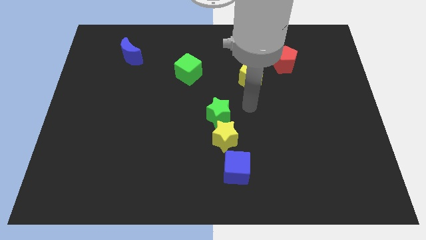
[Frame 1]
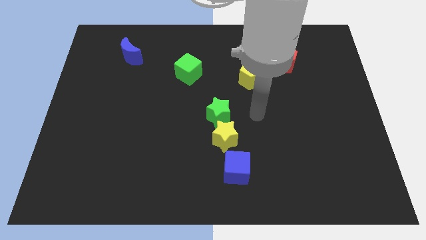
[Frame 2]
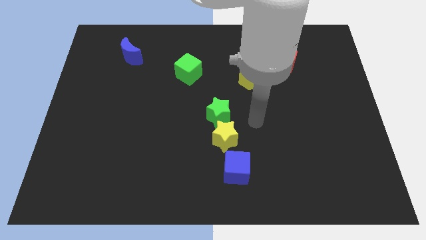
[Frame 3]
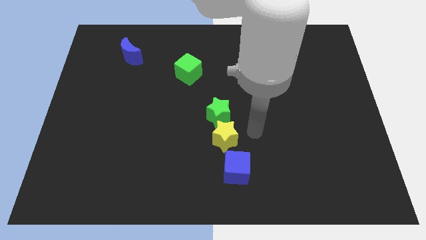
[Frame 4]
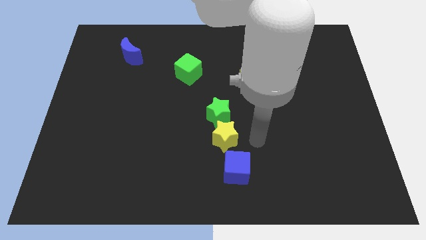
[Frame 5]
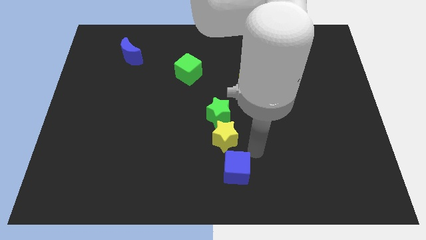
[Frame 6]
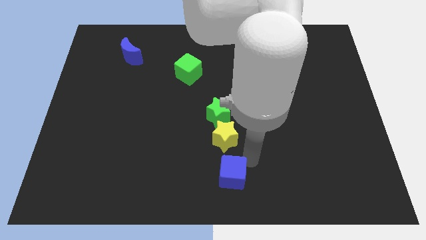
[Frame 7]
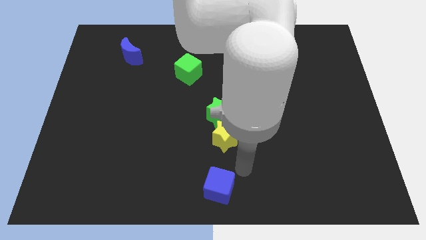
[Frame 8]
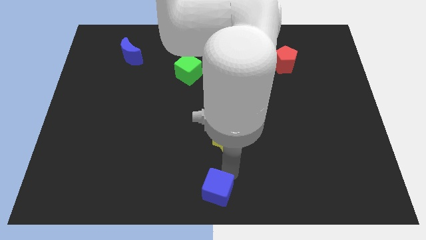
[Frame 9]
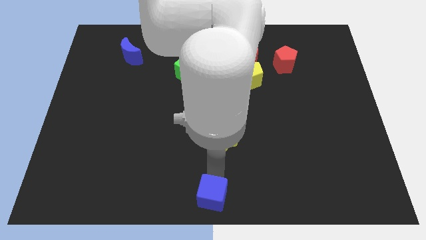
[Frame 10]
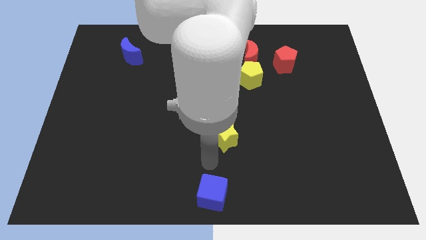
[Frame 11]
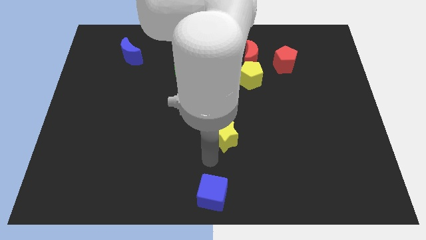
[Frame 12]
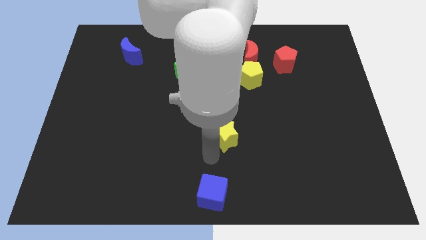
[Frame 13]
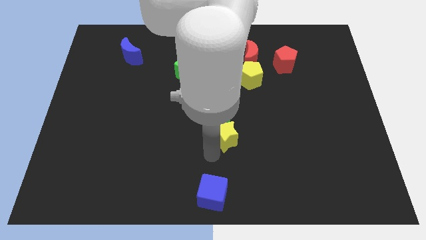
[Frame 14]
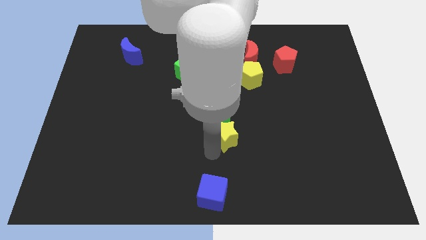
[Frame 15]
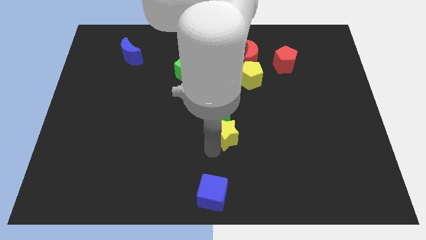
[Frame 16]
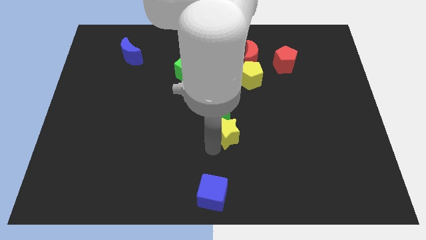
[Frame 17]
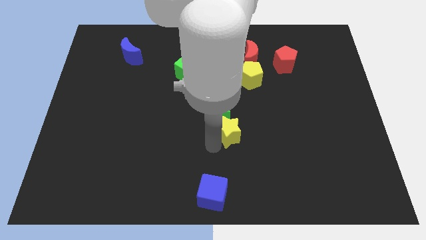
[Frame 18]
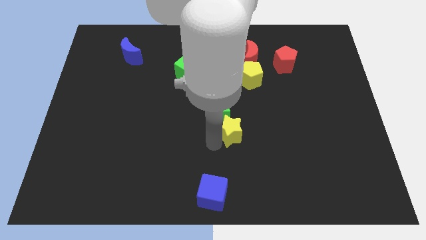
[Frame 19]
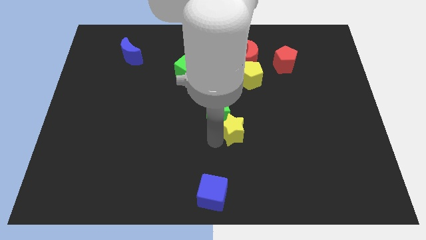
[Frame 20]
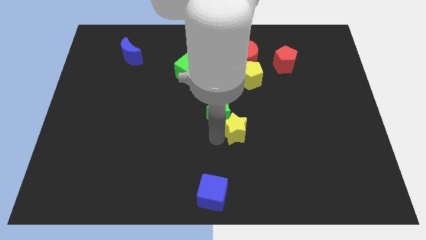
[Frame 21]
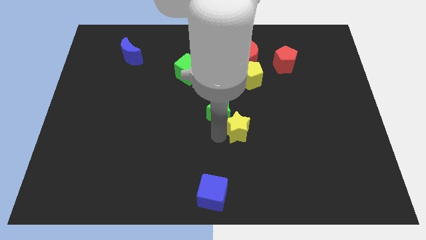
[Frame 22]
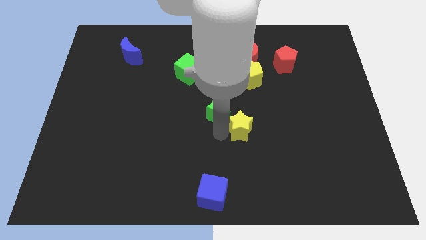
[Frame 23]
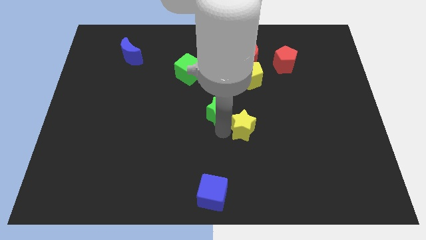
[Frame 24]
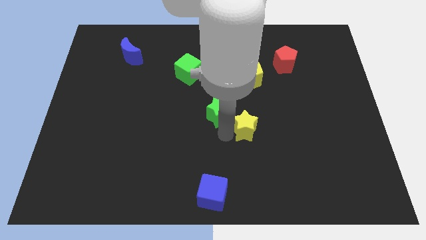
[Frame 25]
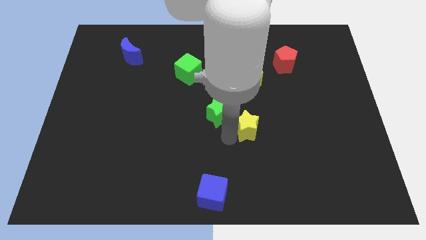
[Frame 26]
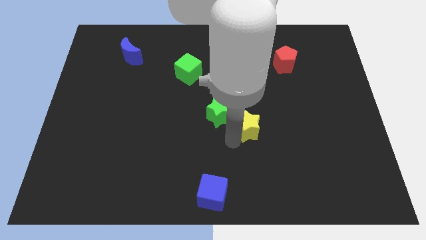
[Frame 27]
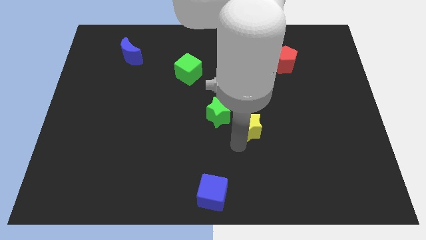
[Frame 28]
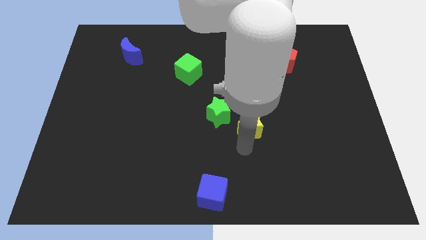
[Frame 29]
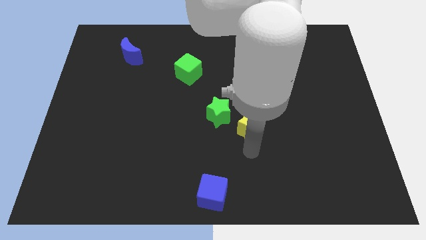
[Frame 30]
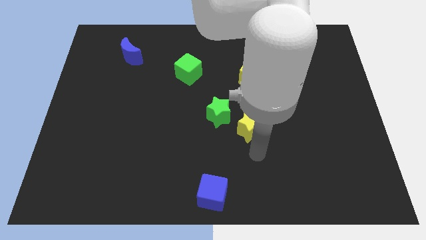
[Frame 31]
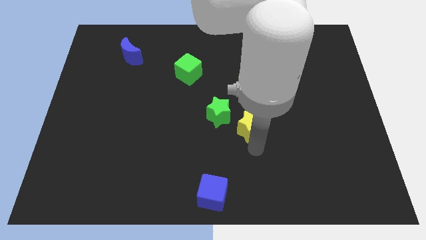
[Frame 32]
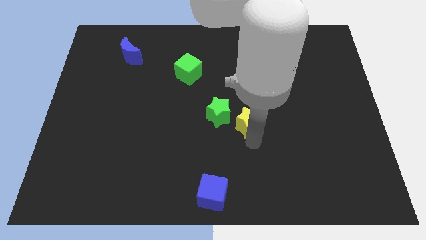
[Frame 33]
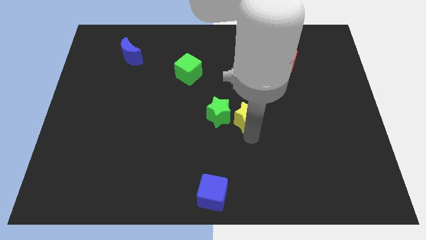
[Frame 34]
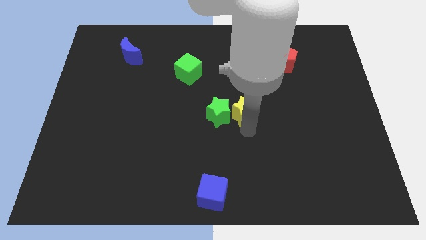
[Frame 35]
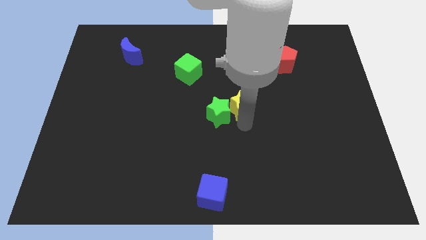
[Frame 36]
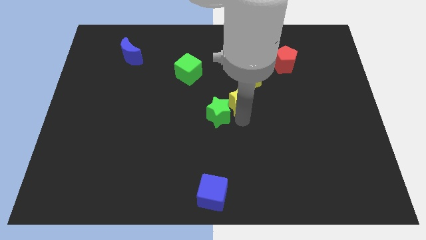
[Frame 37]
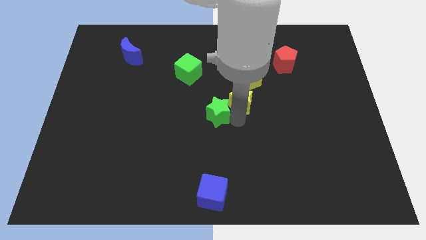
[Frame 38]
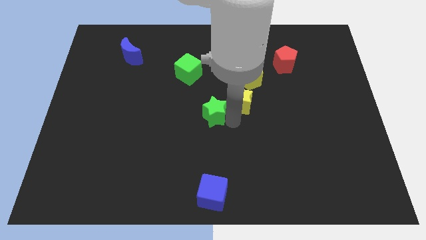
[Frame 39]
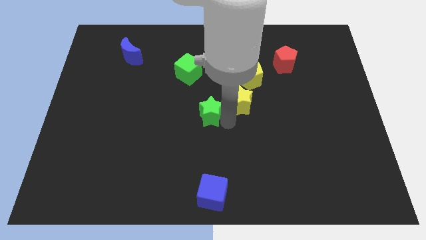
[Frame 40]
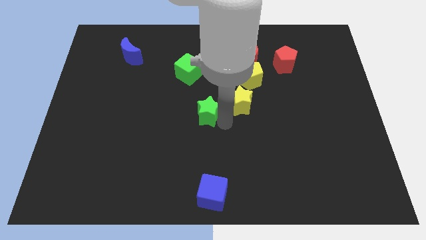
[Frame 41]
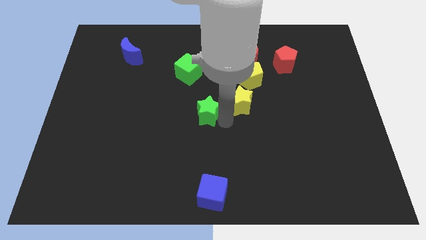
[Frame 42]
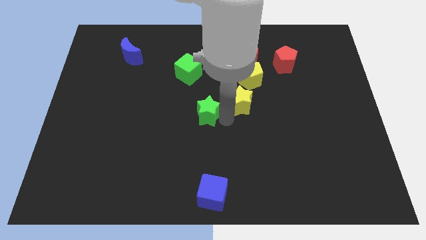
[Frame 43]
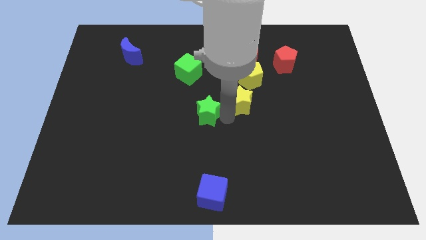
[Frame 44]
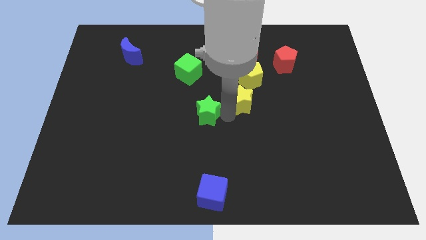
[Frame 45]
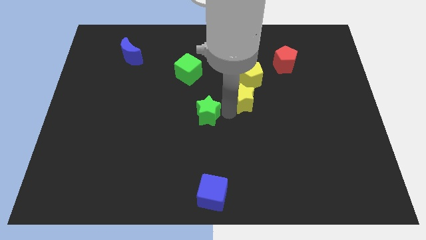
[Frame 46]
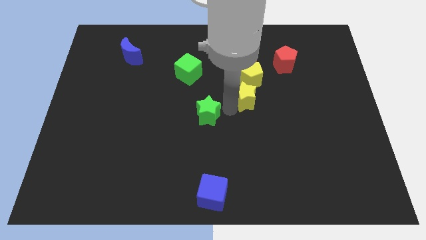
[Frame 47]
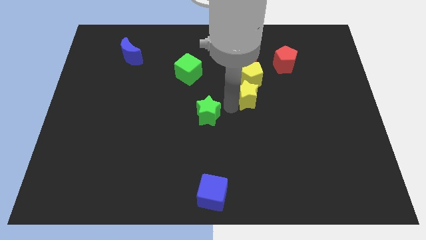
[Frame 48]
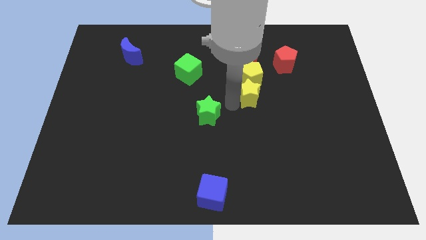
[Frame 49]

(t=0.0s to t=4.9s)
slide the yellow star to the yellow pentagon

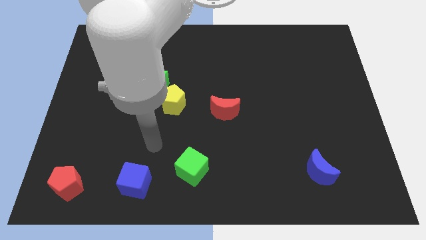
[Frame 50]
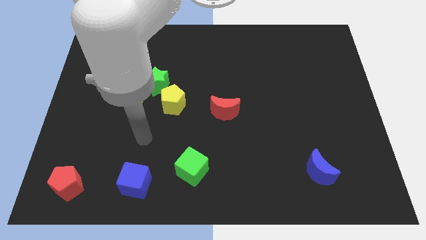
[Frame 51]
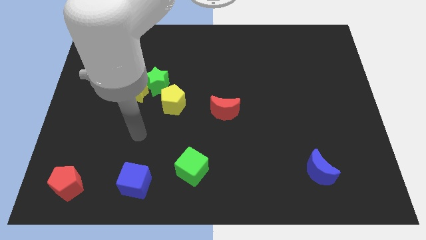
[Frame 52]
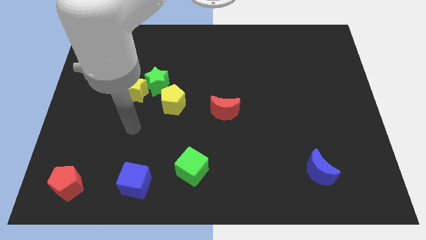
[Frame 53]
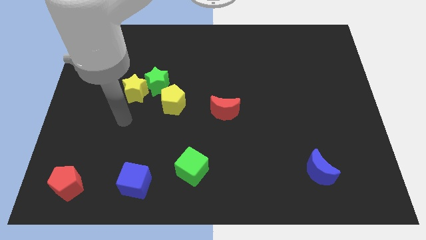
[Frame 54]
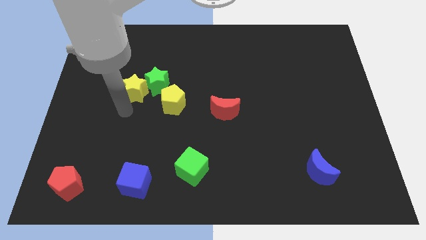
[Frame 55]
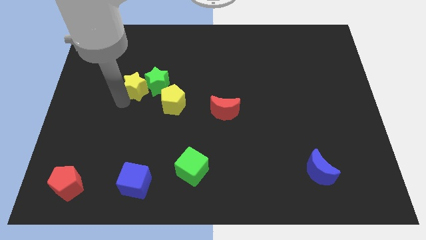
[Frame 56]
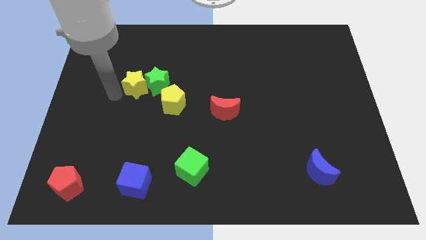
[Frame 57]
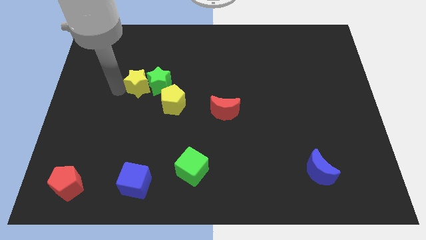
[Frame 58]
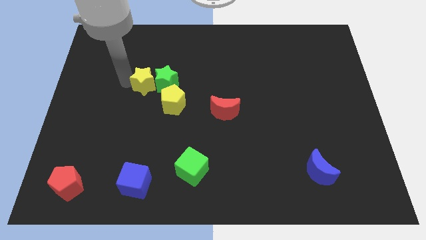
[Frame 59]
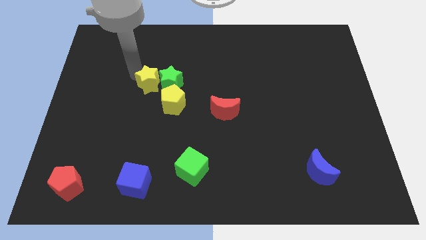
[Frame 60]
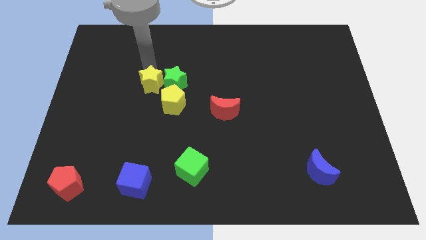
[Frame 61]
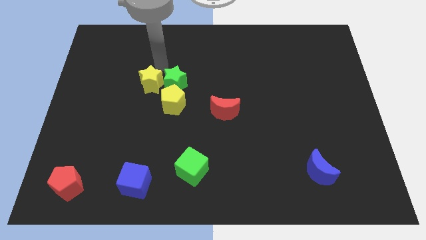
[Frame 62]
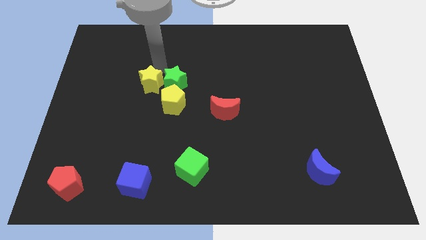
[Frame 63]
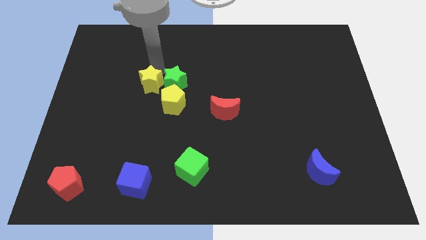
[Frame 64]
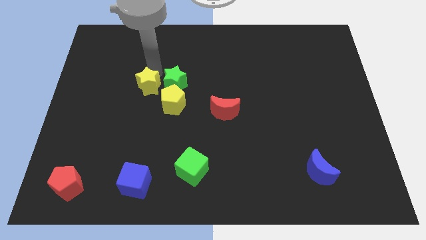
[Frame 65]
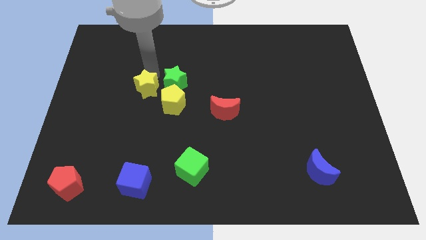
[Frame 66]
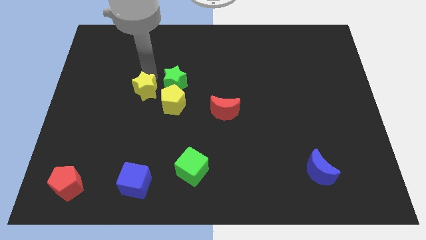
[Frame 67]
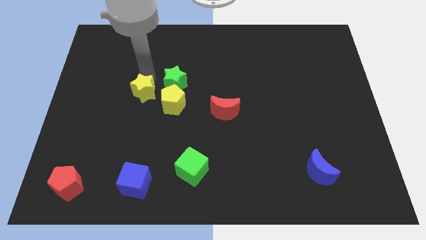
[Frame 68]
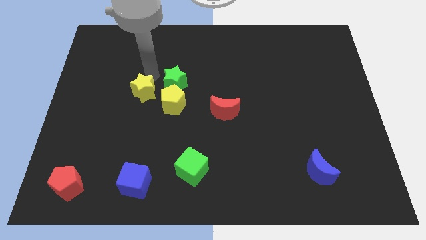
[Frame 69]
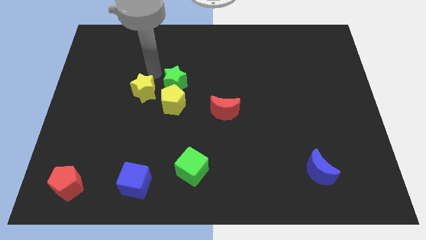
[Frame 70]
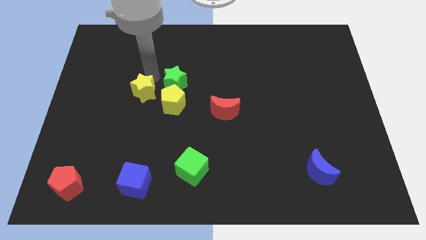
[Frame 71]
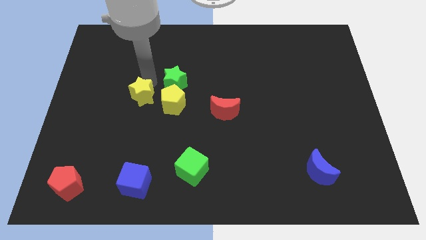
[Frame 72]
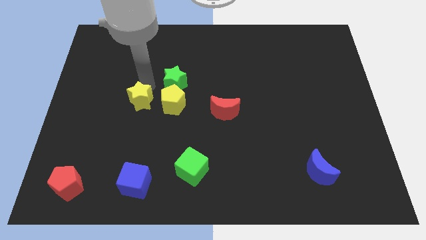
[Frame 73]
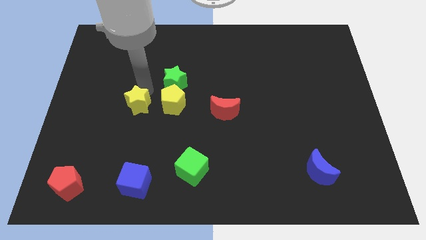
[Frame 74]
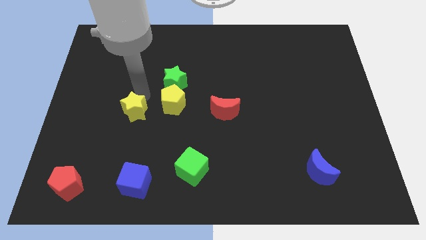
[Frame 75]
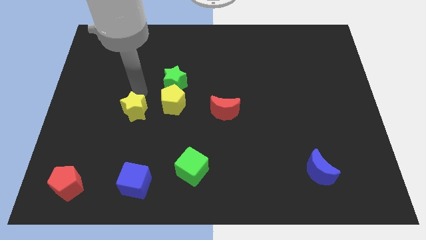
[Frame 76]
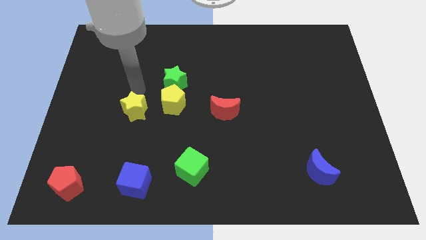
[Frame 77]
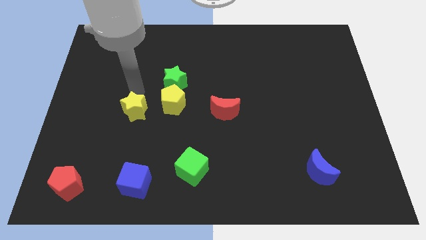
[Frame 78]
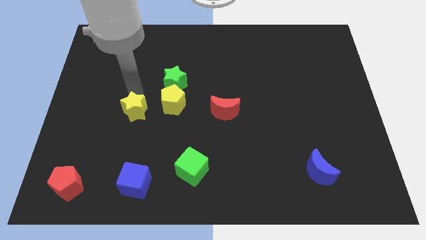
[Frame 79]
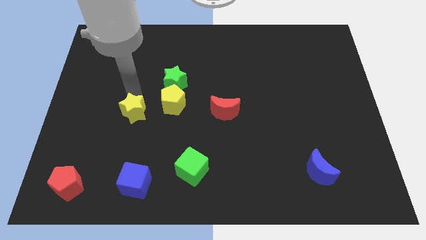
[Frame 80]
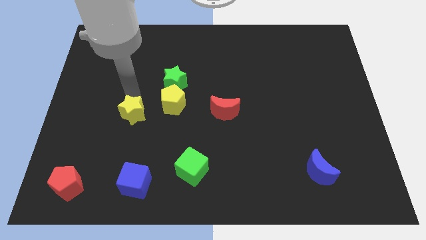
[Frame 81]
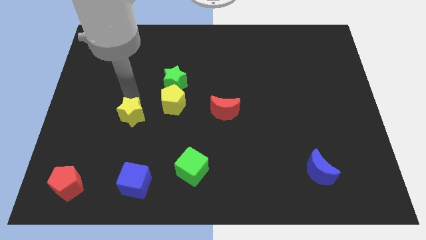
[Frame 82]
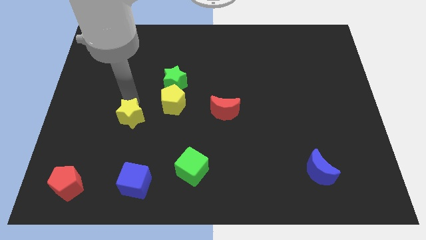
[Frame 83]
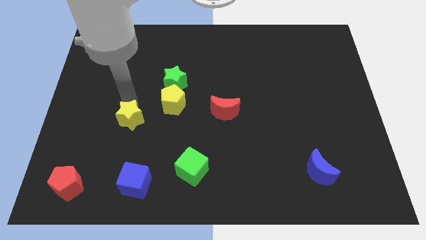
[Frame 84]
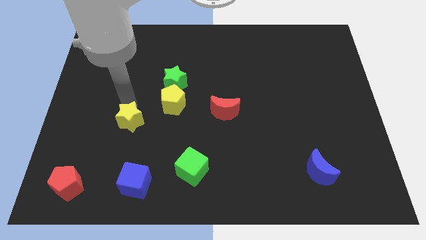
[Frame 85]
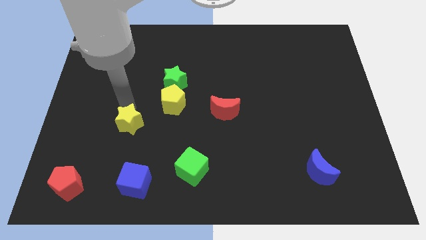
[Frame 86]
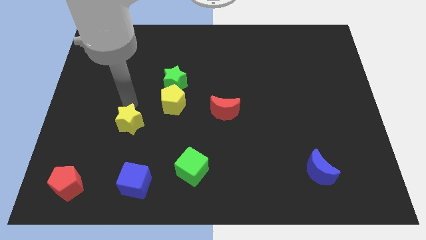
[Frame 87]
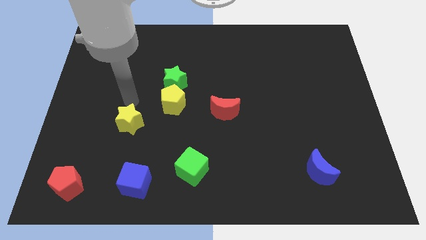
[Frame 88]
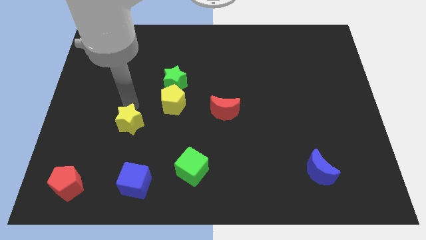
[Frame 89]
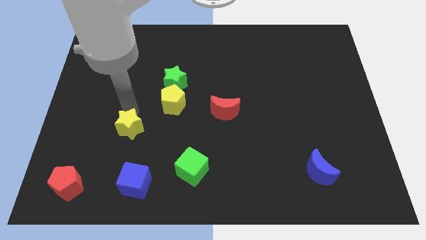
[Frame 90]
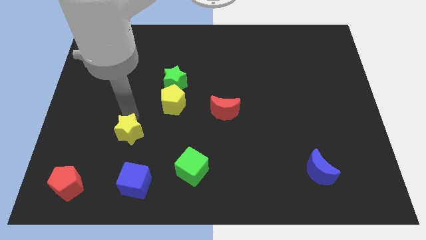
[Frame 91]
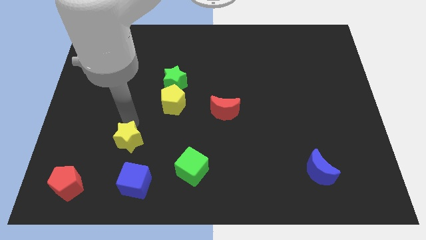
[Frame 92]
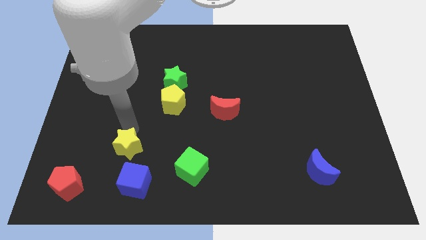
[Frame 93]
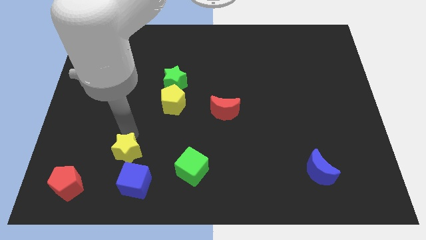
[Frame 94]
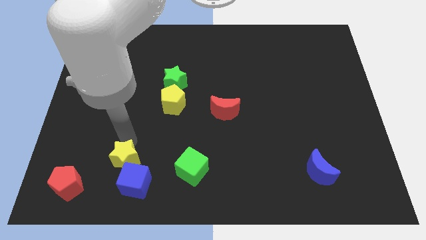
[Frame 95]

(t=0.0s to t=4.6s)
slide the yellow star close to the blue cube
